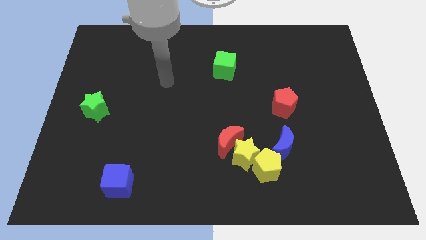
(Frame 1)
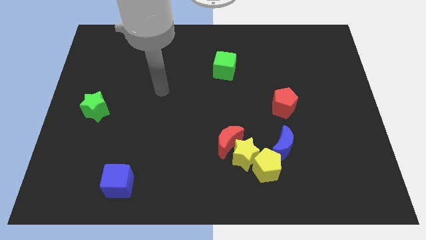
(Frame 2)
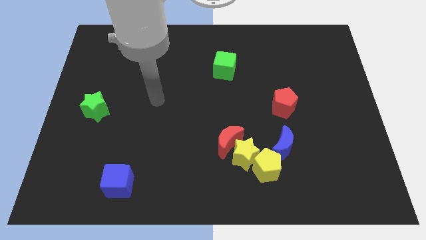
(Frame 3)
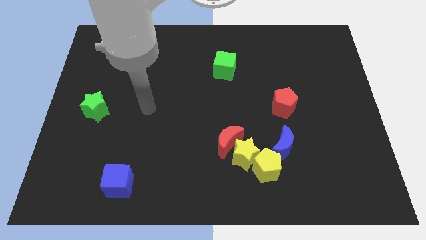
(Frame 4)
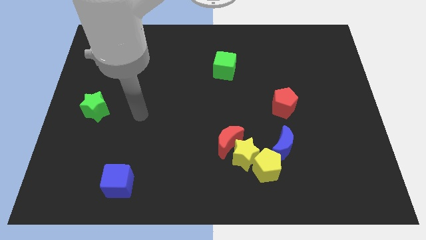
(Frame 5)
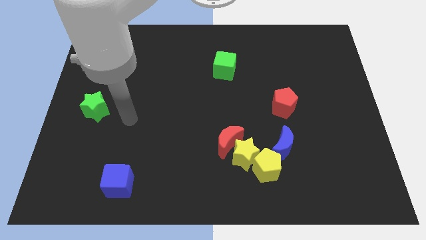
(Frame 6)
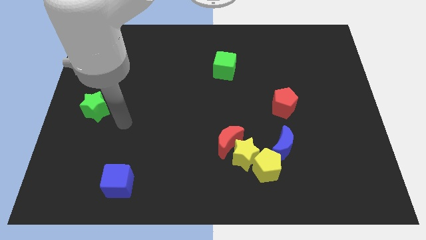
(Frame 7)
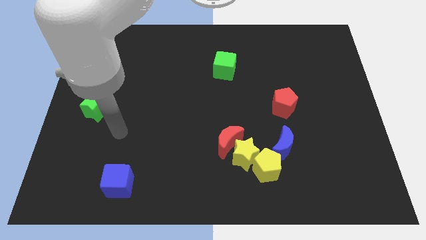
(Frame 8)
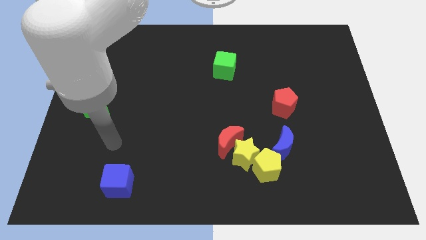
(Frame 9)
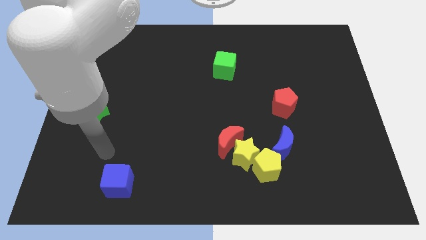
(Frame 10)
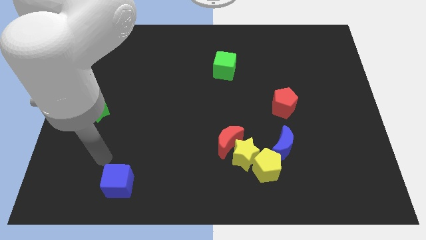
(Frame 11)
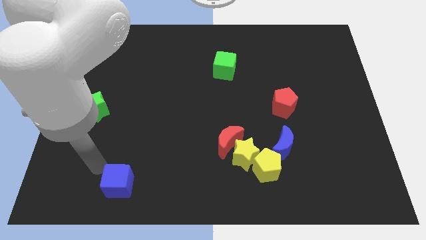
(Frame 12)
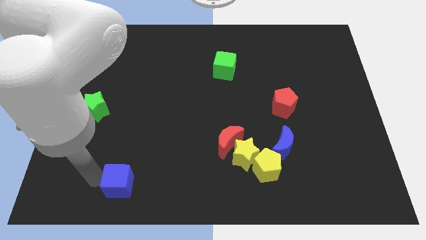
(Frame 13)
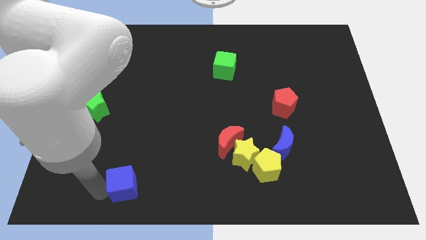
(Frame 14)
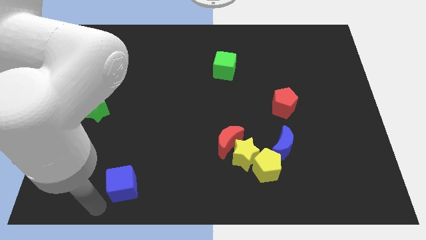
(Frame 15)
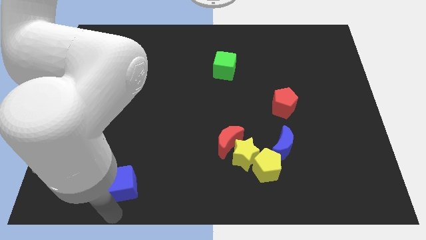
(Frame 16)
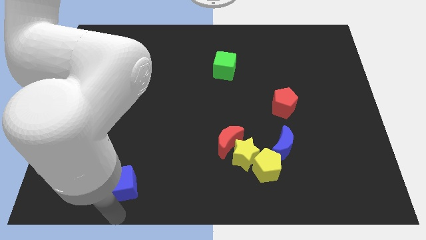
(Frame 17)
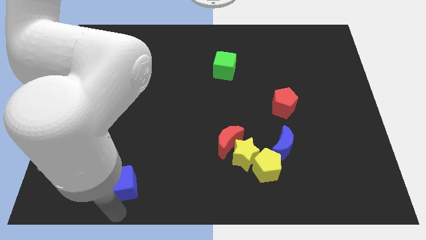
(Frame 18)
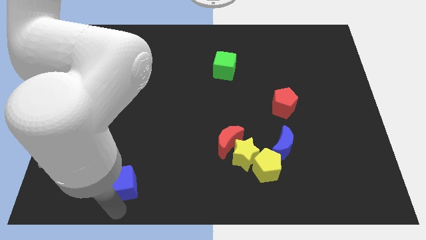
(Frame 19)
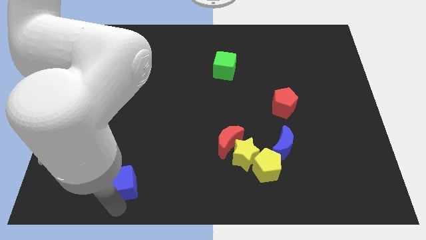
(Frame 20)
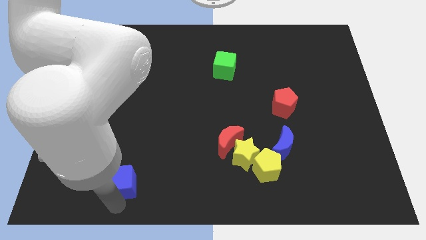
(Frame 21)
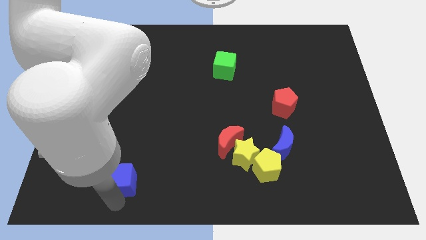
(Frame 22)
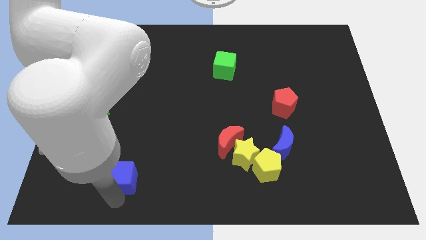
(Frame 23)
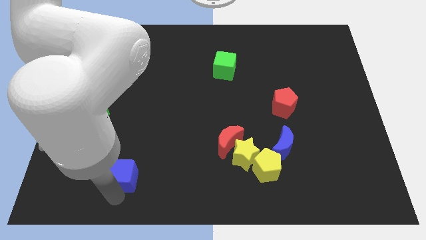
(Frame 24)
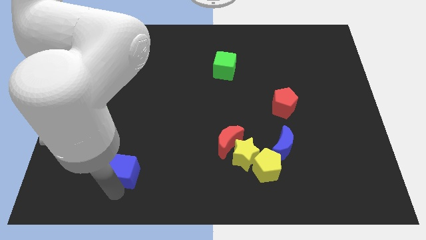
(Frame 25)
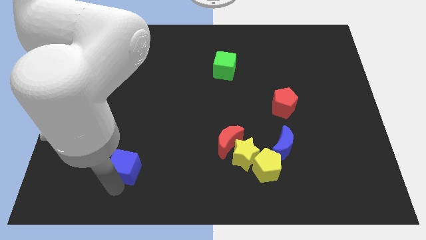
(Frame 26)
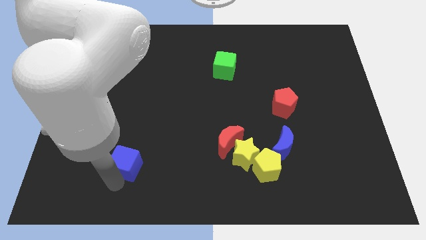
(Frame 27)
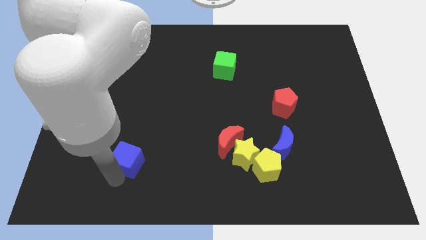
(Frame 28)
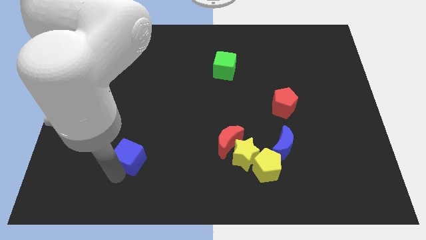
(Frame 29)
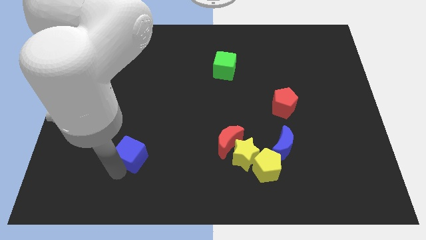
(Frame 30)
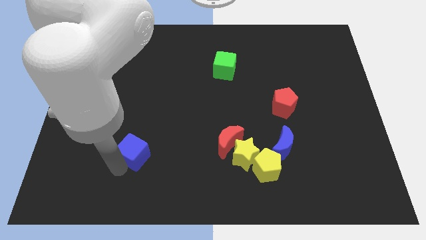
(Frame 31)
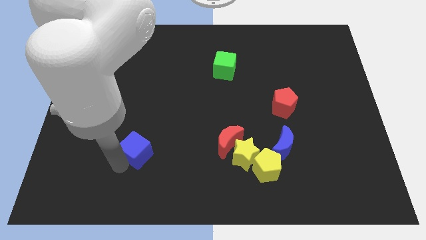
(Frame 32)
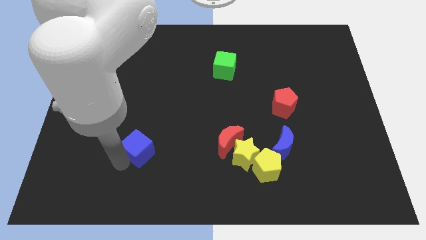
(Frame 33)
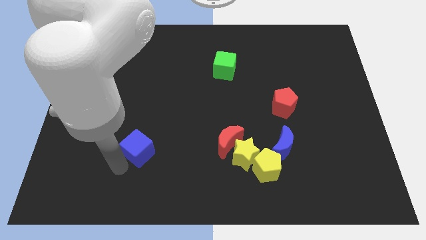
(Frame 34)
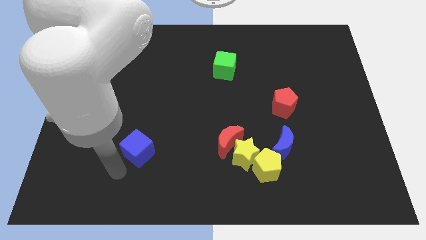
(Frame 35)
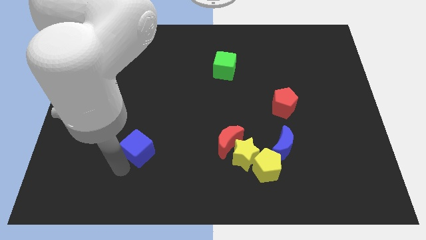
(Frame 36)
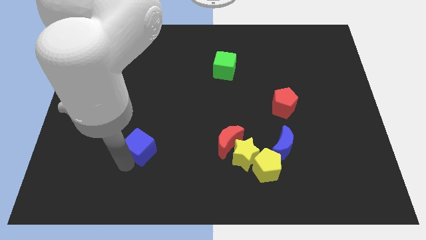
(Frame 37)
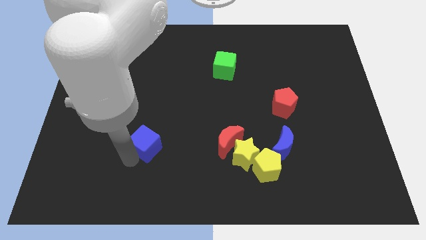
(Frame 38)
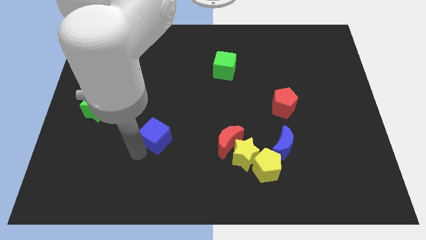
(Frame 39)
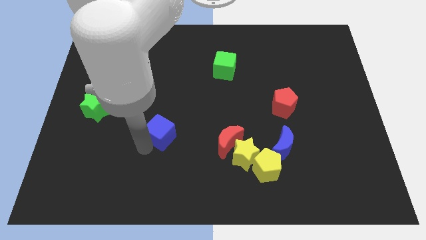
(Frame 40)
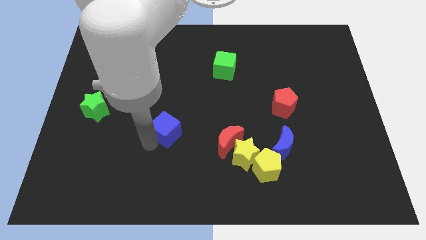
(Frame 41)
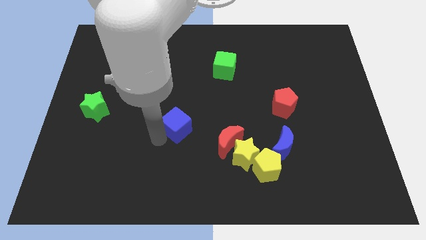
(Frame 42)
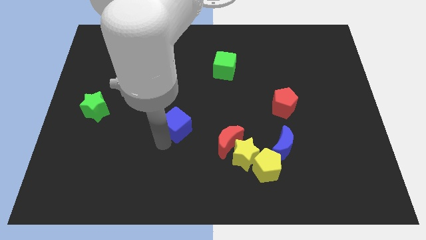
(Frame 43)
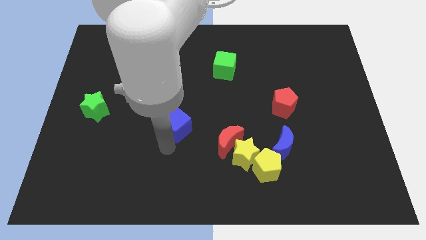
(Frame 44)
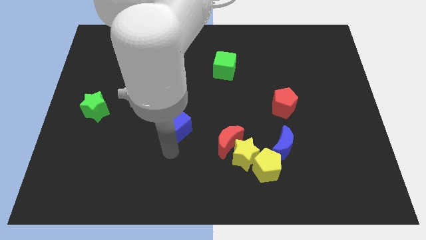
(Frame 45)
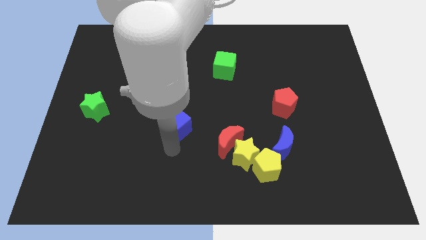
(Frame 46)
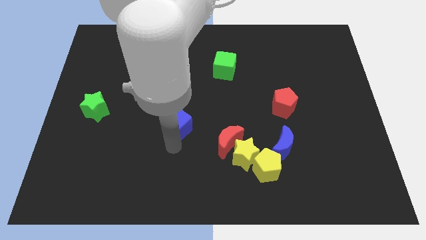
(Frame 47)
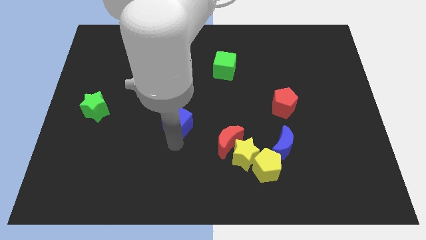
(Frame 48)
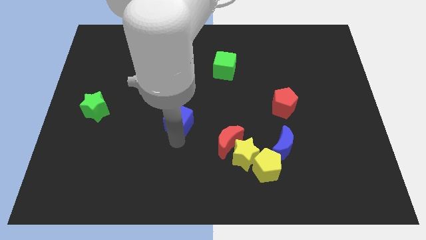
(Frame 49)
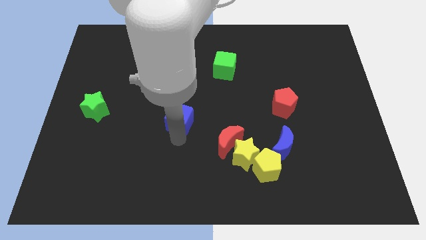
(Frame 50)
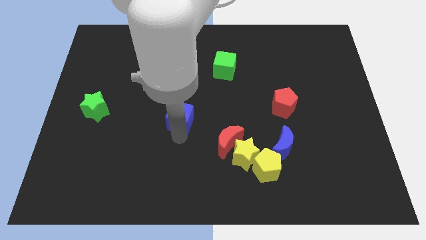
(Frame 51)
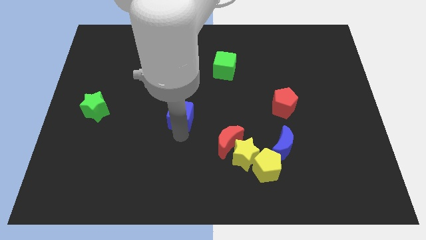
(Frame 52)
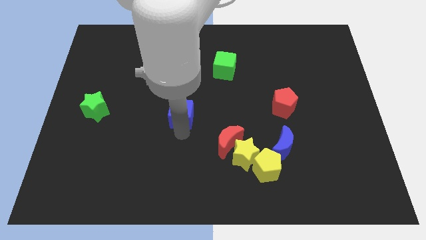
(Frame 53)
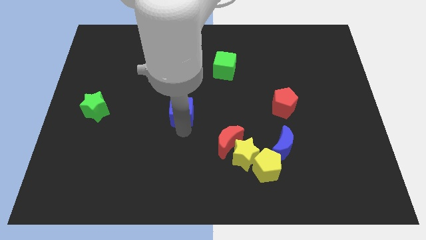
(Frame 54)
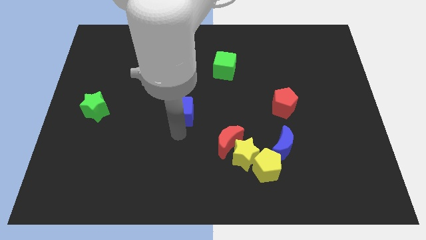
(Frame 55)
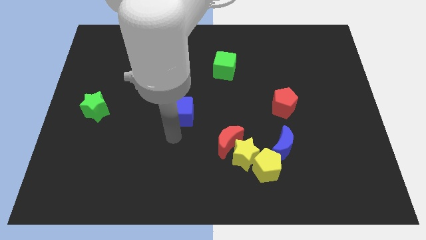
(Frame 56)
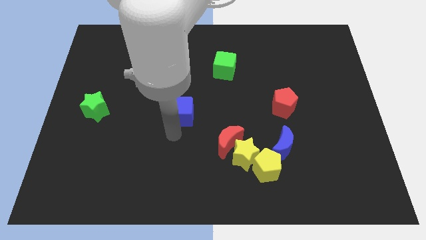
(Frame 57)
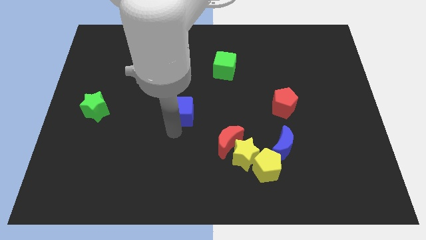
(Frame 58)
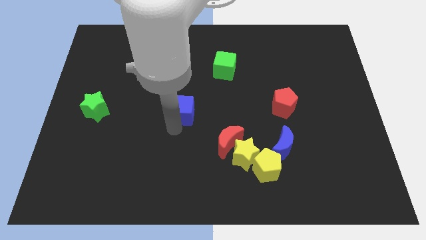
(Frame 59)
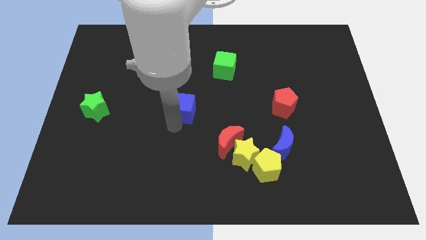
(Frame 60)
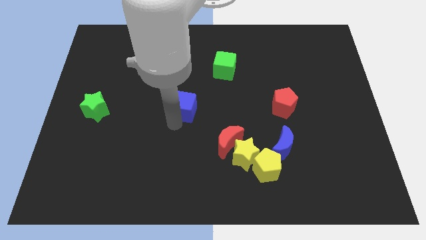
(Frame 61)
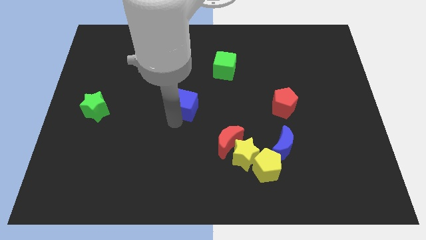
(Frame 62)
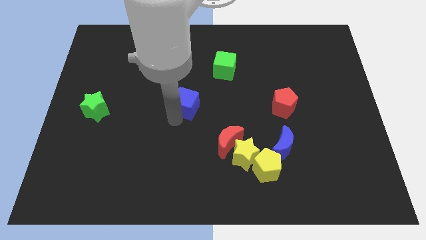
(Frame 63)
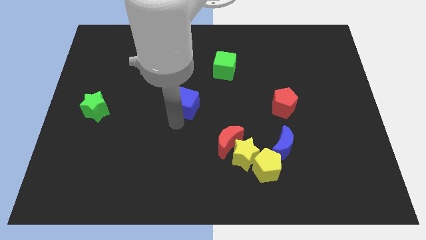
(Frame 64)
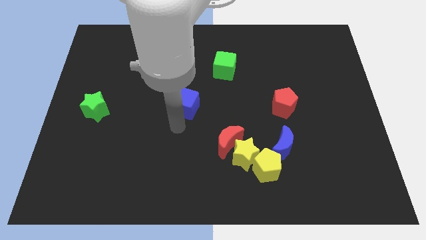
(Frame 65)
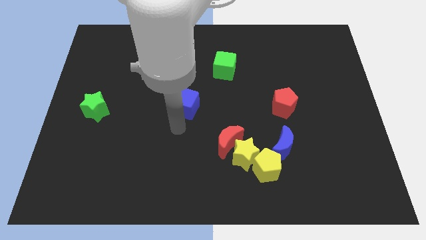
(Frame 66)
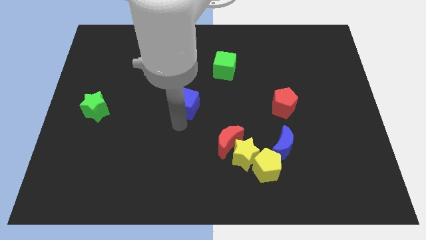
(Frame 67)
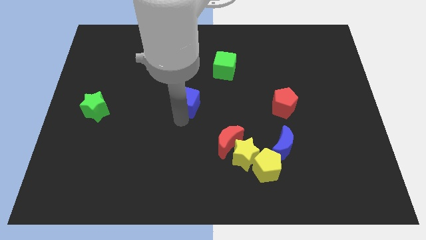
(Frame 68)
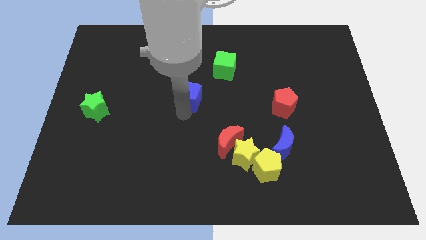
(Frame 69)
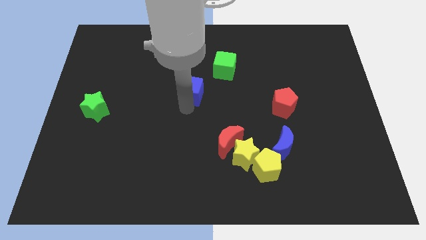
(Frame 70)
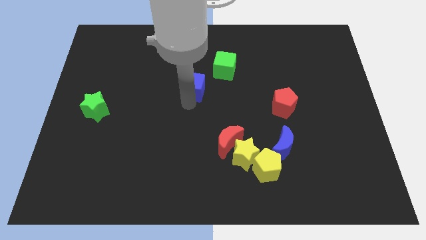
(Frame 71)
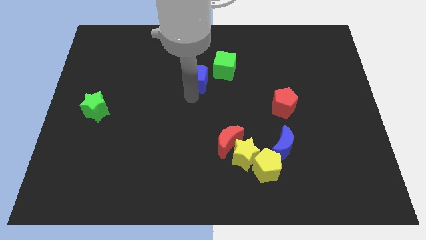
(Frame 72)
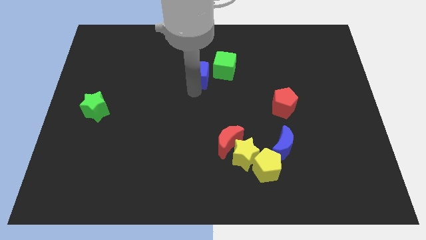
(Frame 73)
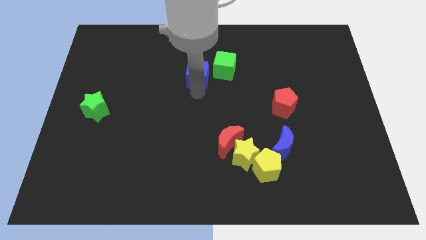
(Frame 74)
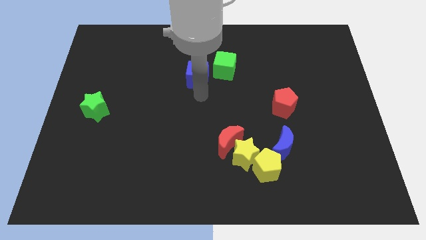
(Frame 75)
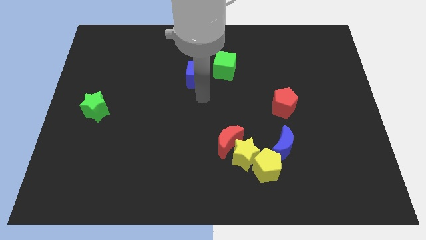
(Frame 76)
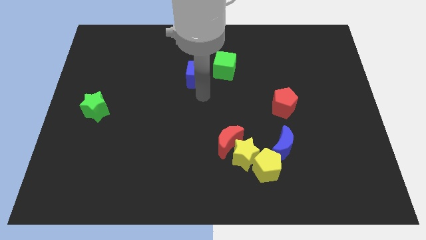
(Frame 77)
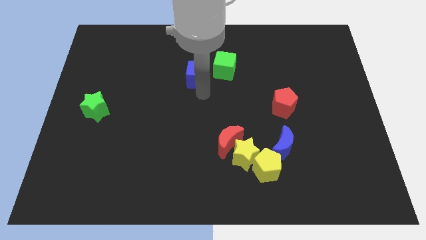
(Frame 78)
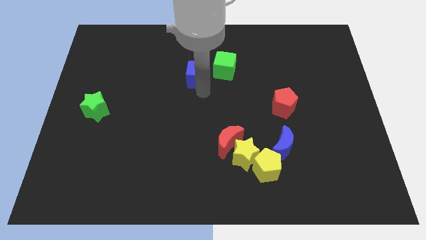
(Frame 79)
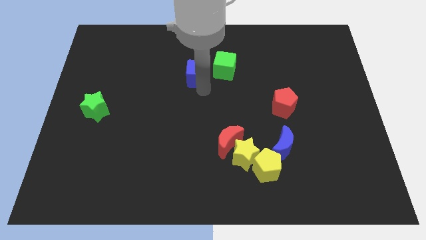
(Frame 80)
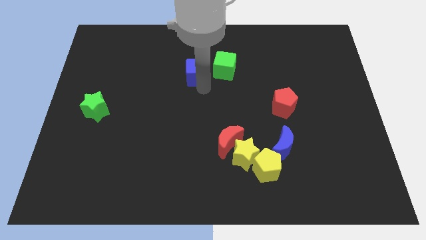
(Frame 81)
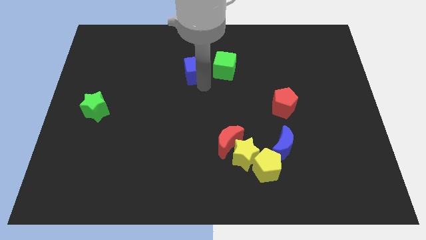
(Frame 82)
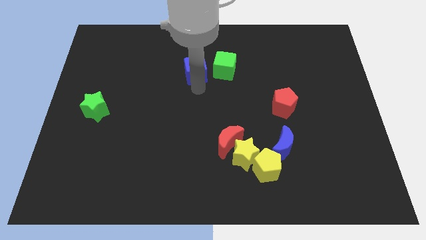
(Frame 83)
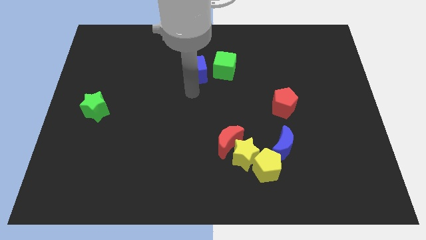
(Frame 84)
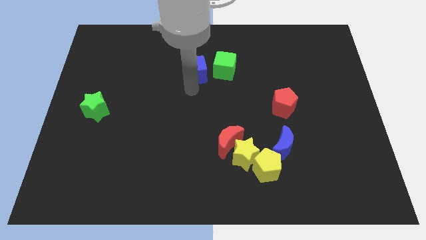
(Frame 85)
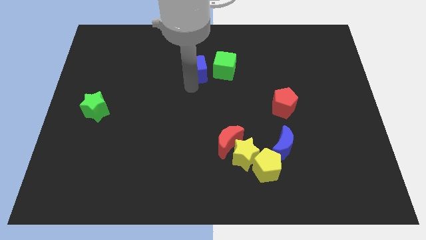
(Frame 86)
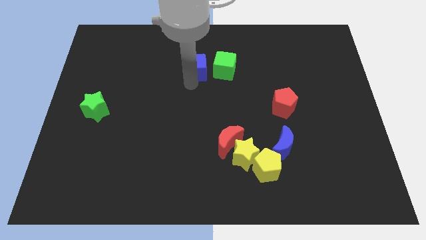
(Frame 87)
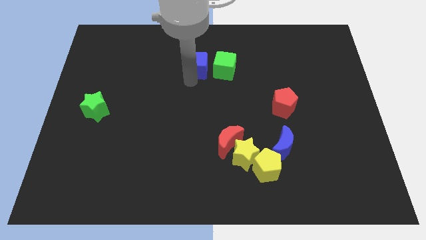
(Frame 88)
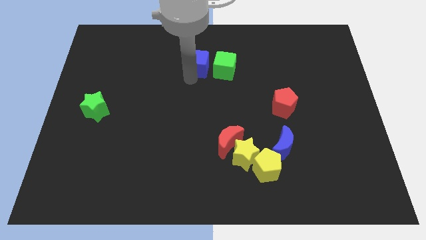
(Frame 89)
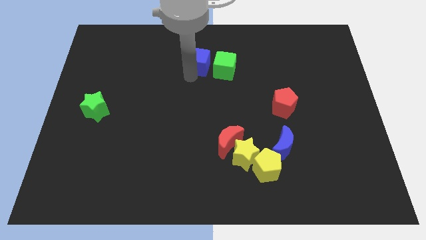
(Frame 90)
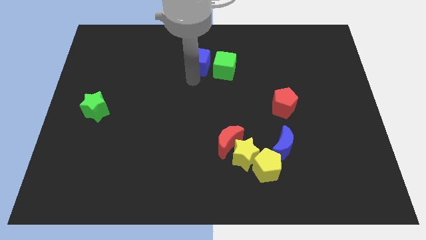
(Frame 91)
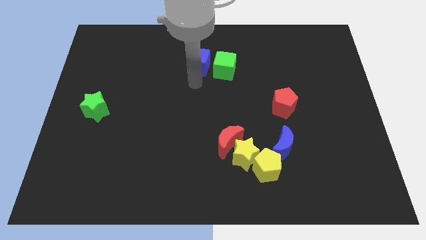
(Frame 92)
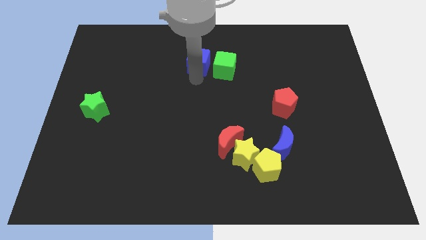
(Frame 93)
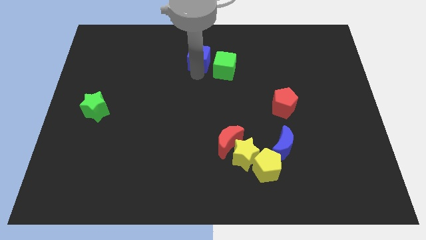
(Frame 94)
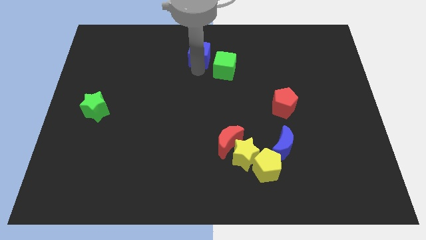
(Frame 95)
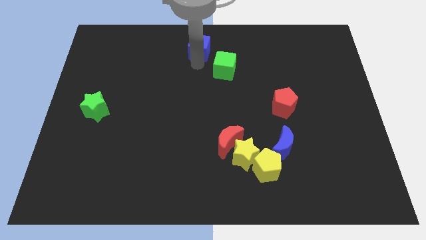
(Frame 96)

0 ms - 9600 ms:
slide the blue cube to the top
